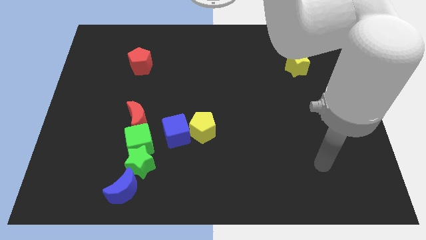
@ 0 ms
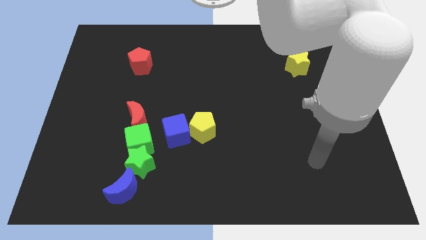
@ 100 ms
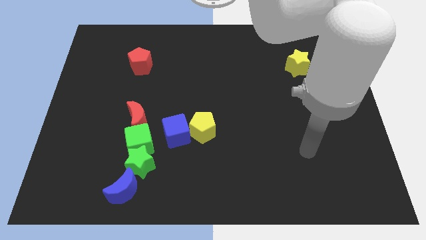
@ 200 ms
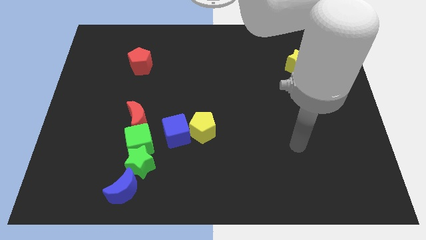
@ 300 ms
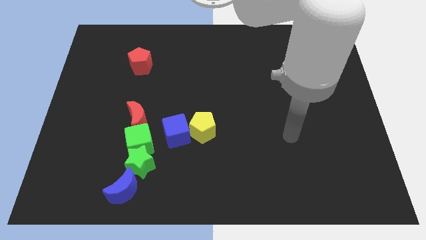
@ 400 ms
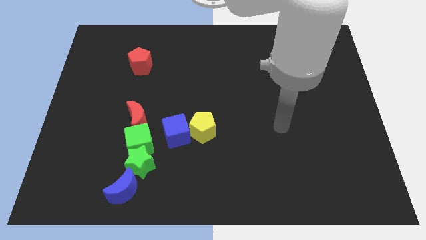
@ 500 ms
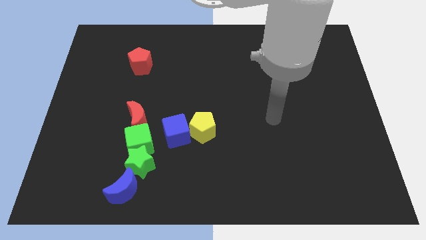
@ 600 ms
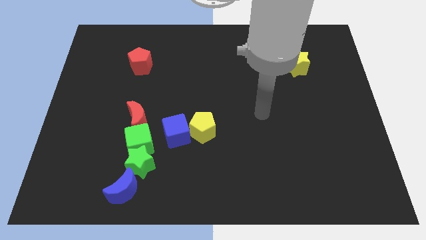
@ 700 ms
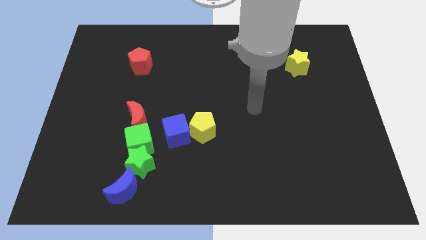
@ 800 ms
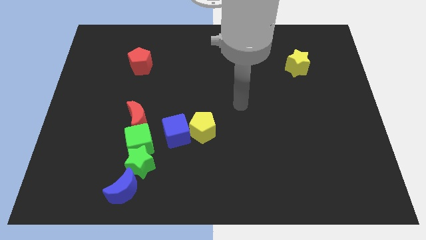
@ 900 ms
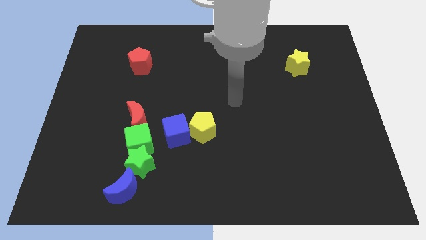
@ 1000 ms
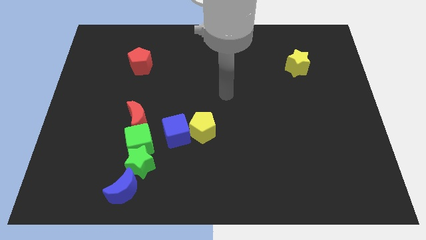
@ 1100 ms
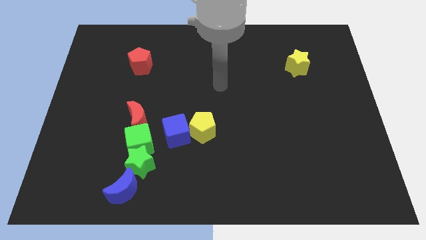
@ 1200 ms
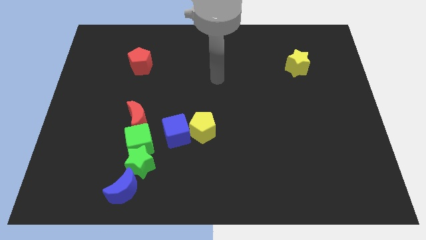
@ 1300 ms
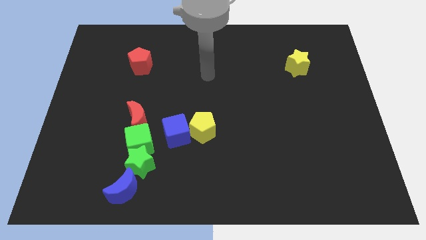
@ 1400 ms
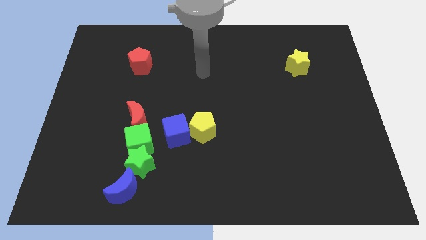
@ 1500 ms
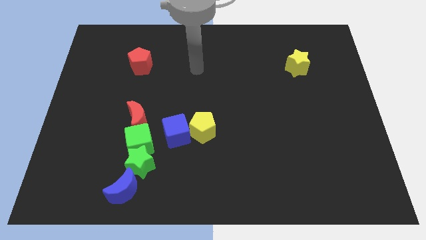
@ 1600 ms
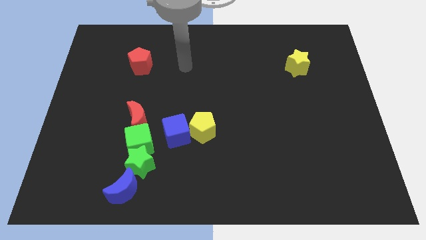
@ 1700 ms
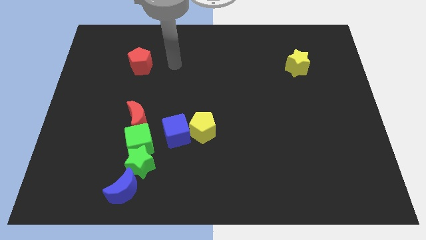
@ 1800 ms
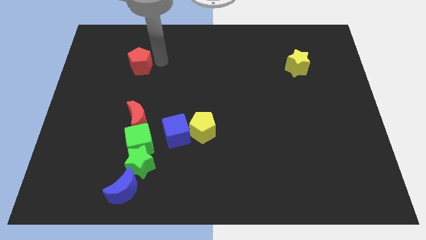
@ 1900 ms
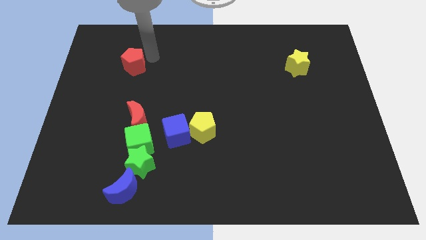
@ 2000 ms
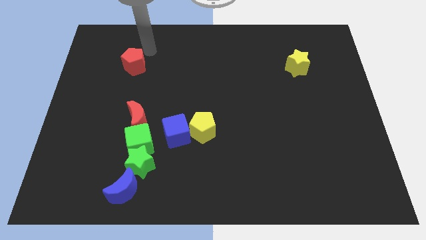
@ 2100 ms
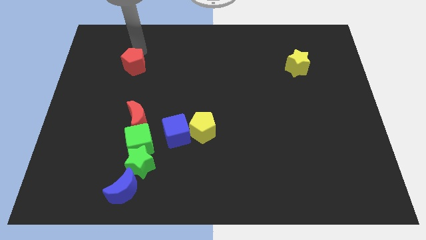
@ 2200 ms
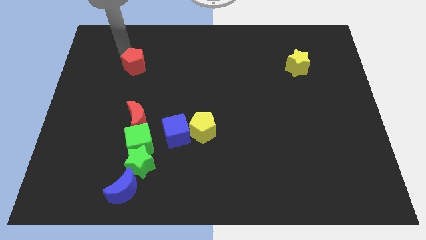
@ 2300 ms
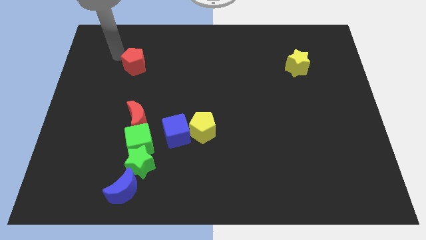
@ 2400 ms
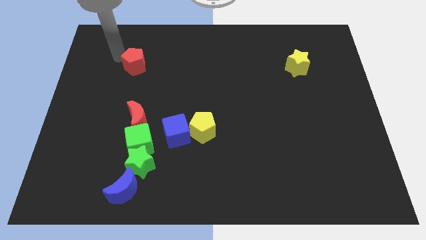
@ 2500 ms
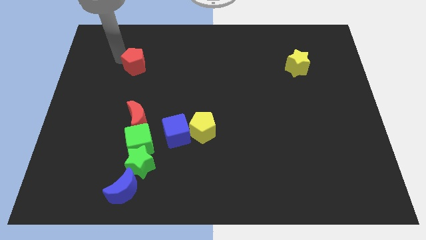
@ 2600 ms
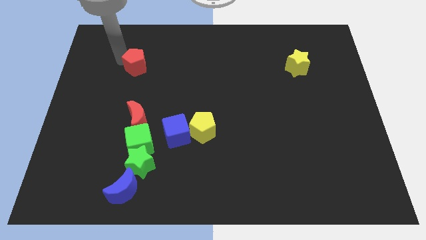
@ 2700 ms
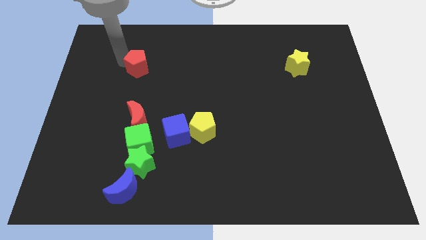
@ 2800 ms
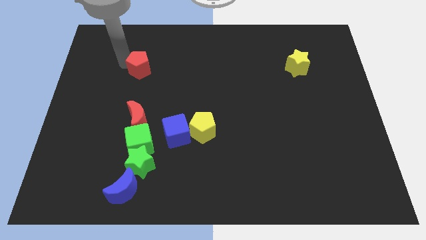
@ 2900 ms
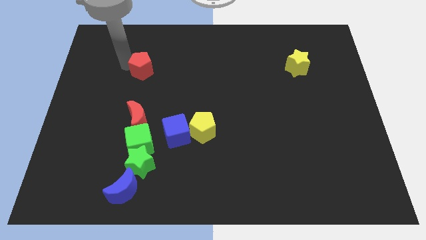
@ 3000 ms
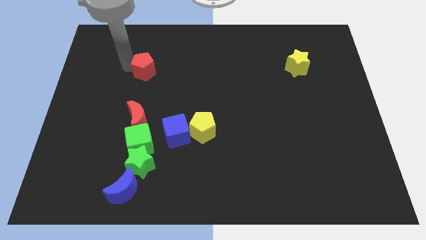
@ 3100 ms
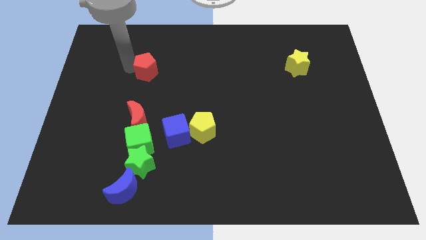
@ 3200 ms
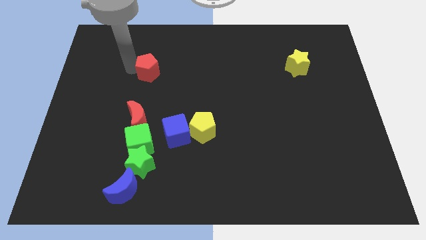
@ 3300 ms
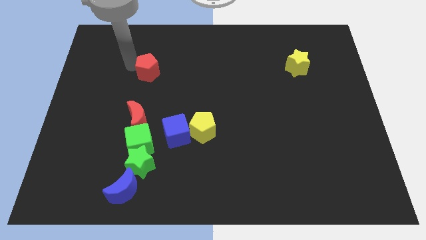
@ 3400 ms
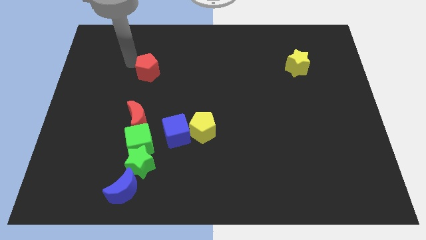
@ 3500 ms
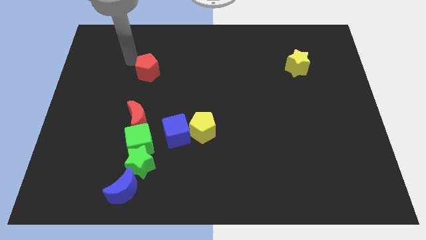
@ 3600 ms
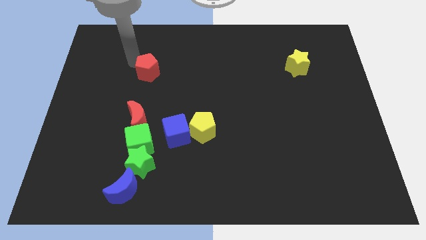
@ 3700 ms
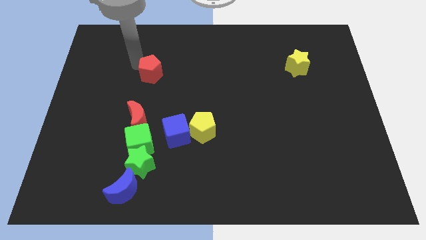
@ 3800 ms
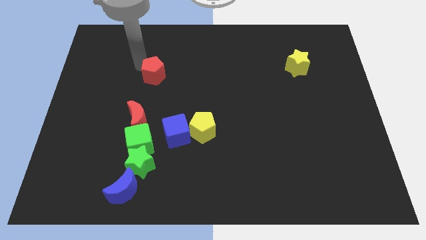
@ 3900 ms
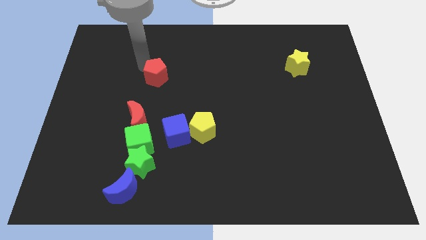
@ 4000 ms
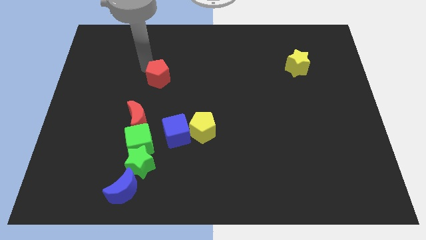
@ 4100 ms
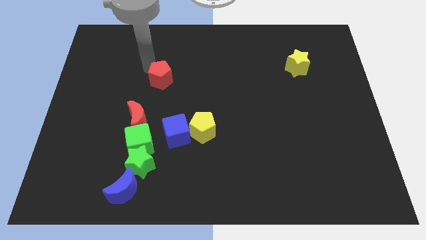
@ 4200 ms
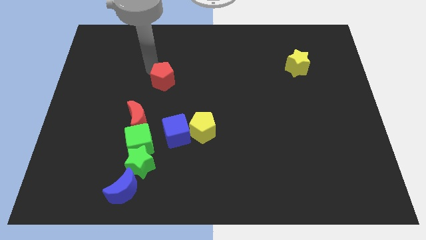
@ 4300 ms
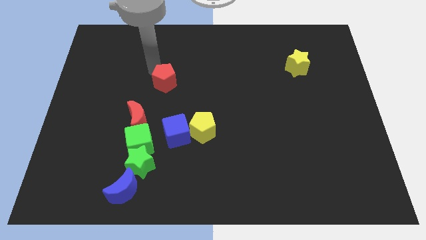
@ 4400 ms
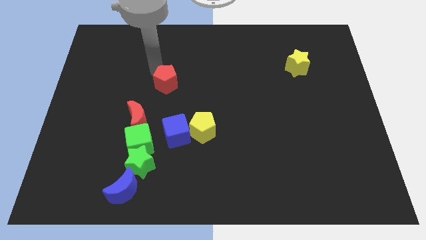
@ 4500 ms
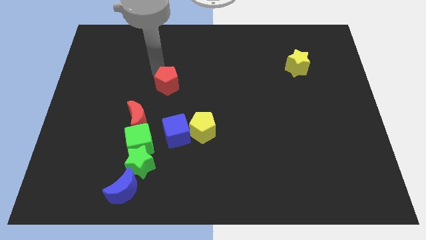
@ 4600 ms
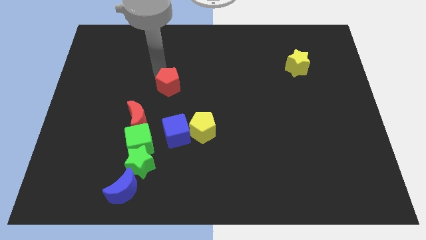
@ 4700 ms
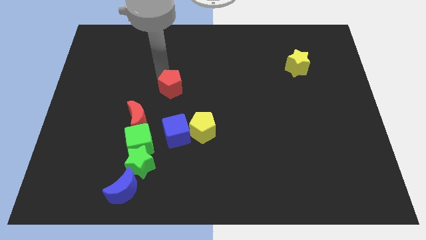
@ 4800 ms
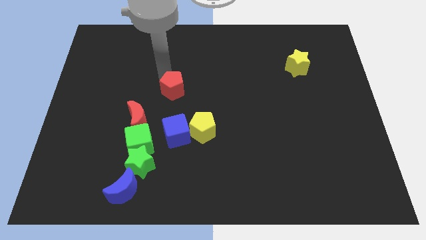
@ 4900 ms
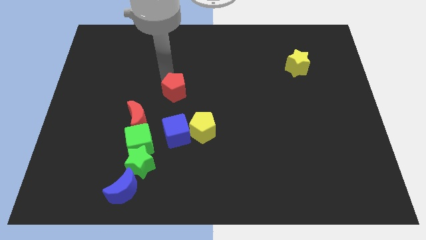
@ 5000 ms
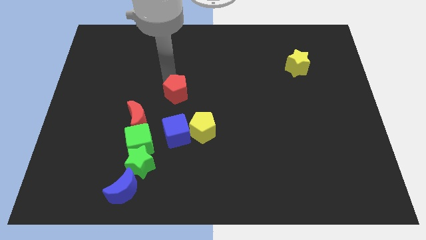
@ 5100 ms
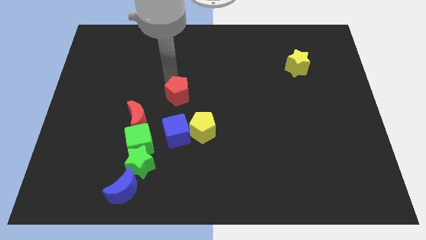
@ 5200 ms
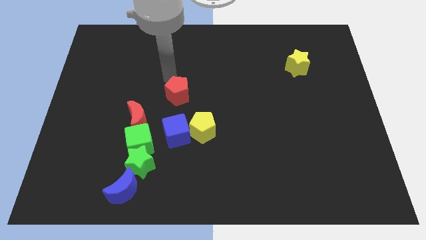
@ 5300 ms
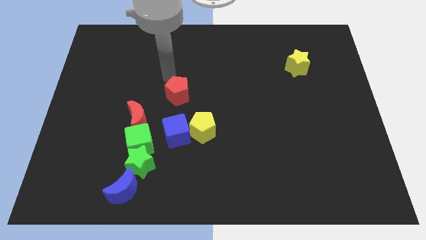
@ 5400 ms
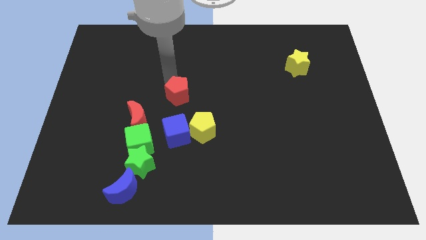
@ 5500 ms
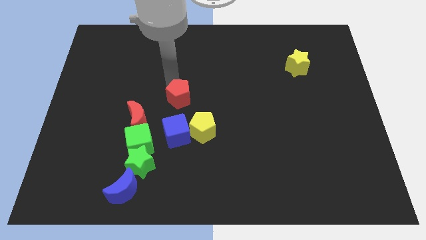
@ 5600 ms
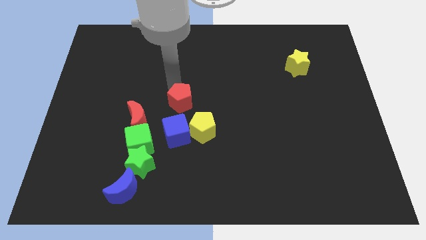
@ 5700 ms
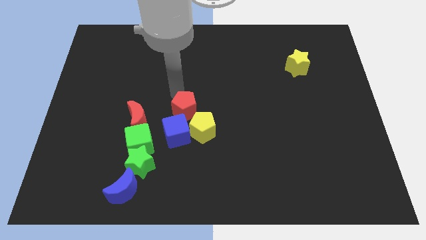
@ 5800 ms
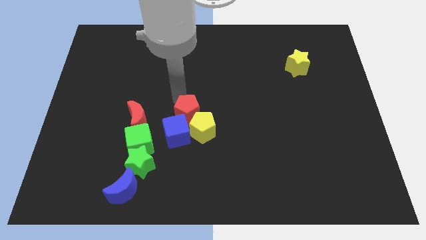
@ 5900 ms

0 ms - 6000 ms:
move the red pentagon towards the yellow pentagon

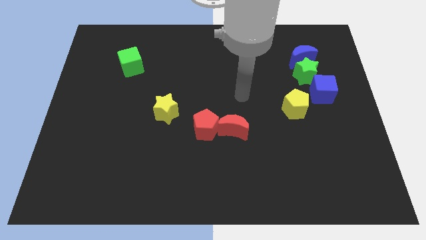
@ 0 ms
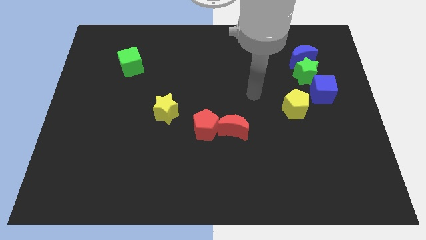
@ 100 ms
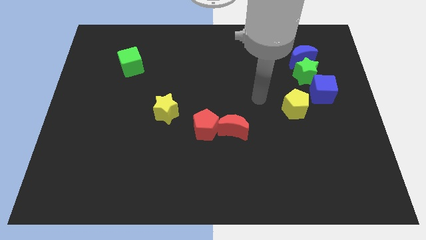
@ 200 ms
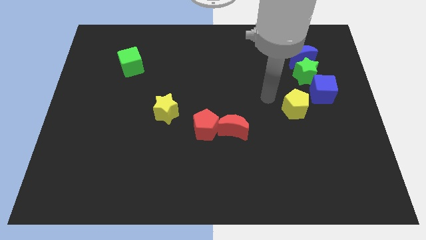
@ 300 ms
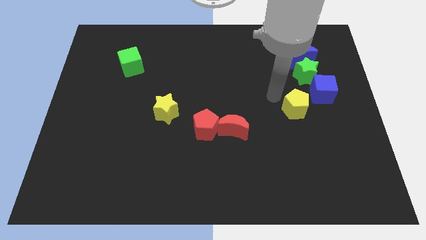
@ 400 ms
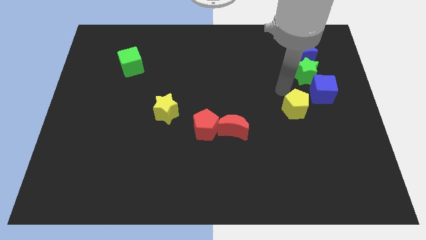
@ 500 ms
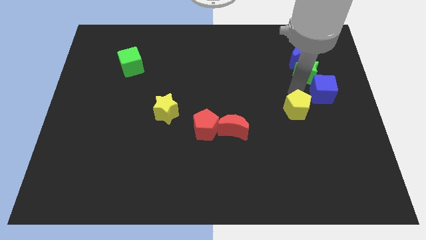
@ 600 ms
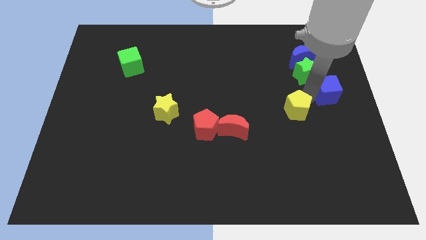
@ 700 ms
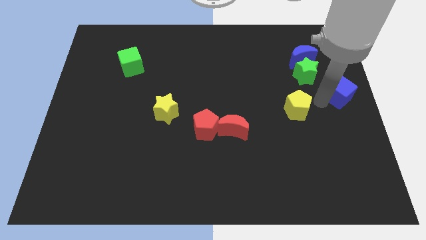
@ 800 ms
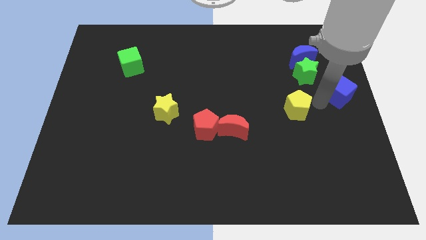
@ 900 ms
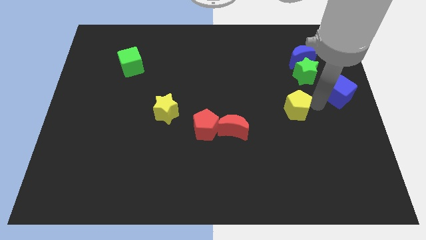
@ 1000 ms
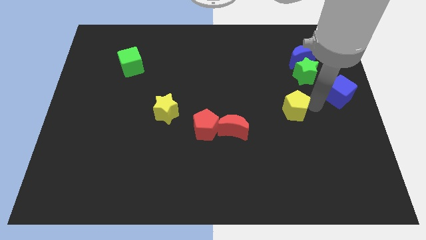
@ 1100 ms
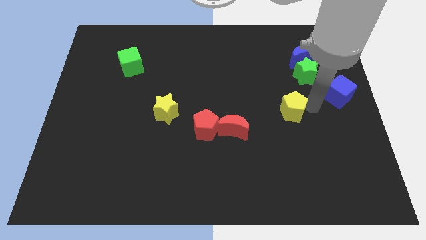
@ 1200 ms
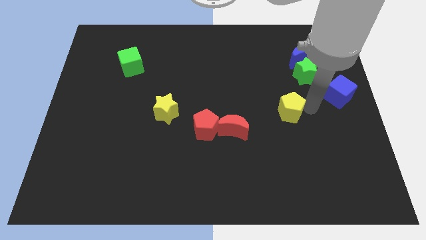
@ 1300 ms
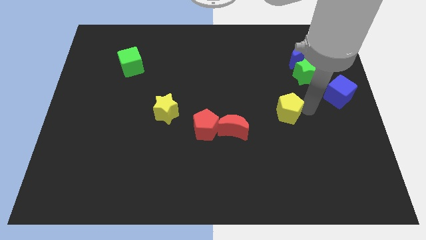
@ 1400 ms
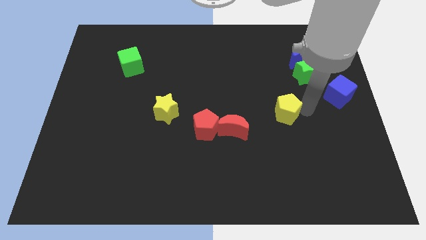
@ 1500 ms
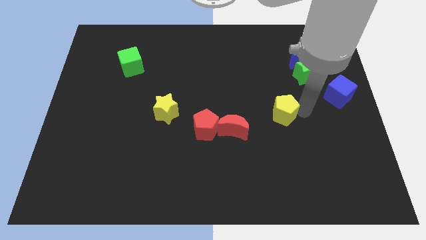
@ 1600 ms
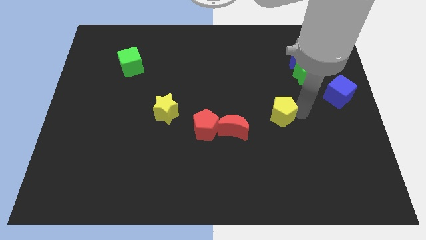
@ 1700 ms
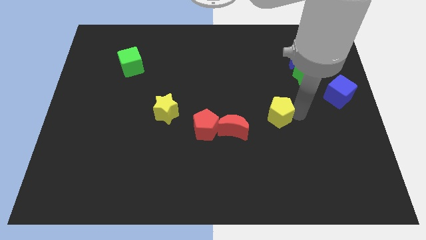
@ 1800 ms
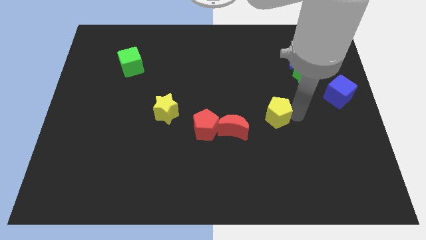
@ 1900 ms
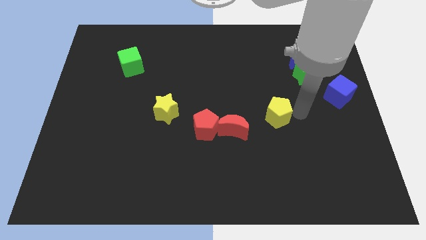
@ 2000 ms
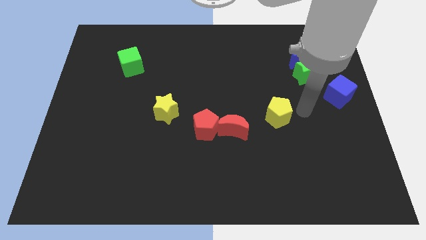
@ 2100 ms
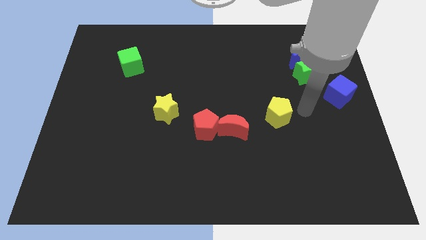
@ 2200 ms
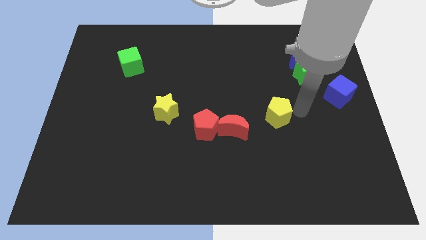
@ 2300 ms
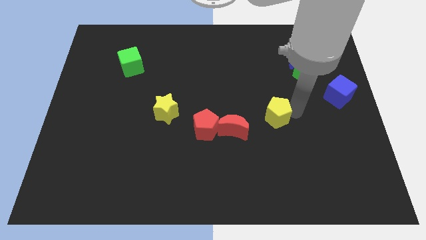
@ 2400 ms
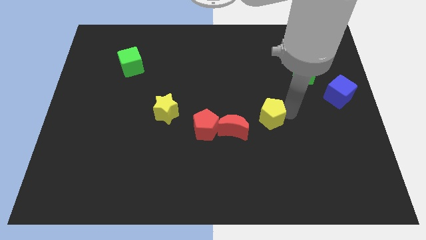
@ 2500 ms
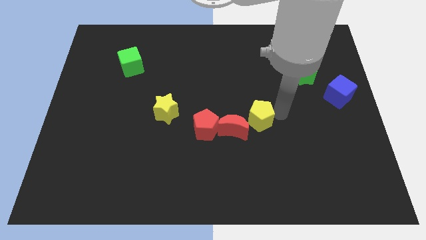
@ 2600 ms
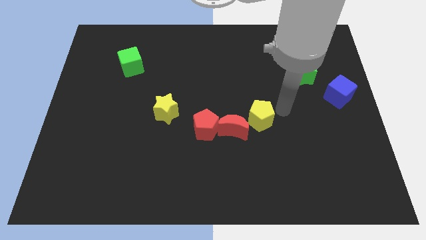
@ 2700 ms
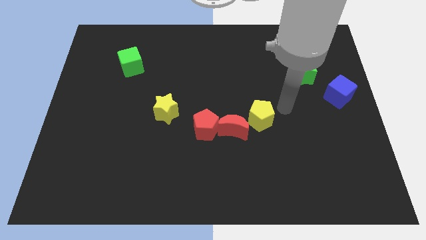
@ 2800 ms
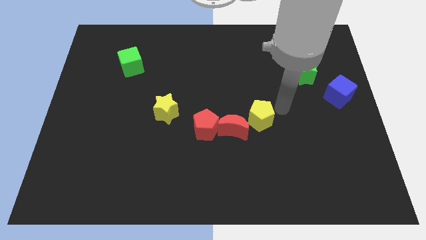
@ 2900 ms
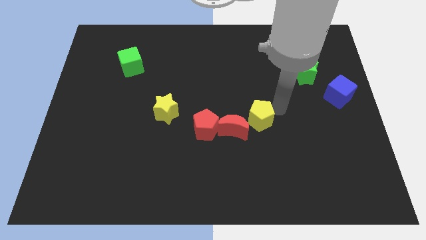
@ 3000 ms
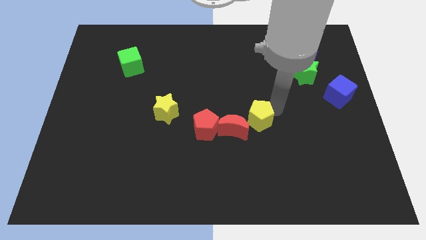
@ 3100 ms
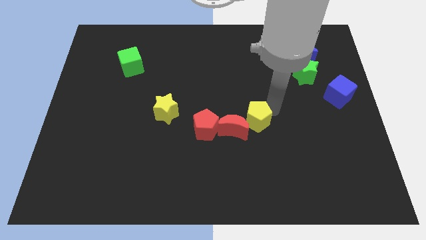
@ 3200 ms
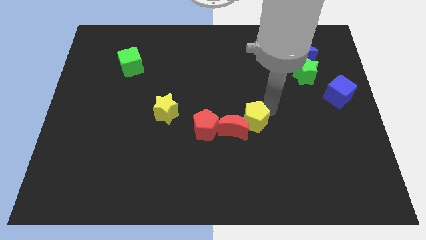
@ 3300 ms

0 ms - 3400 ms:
put the yellow pentagon next to the red moon
